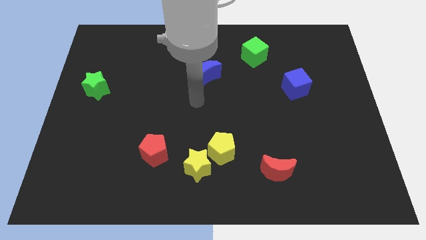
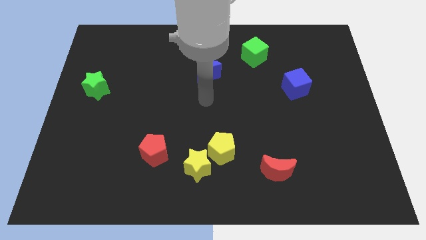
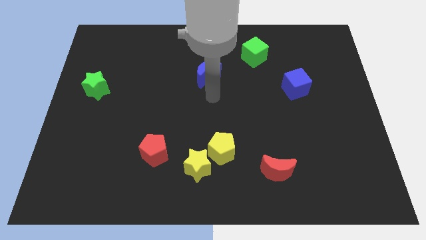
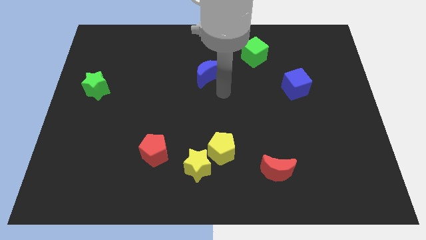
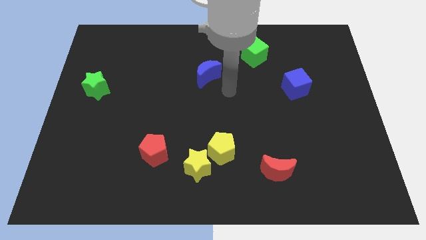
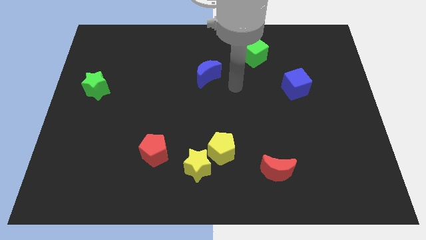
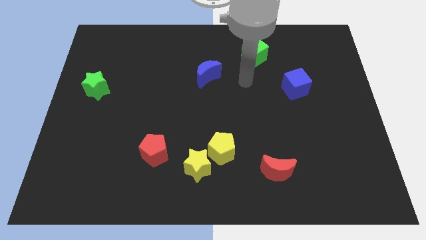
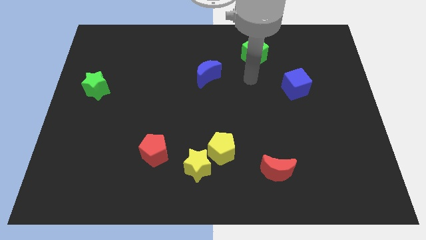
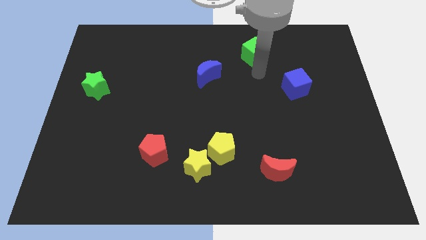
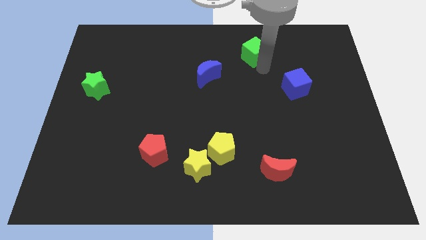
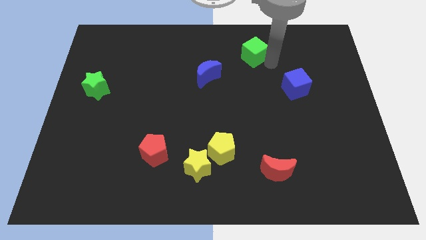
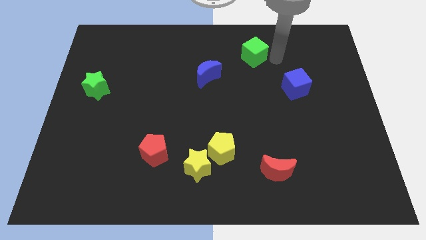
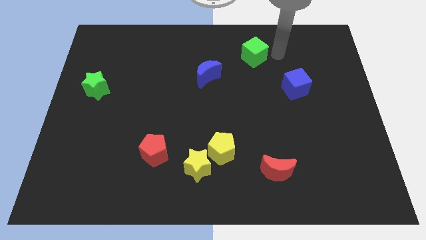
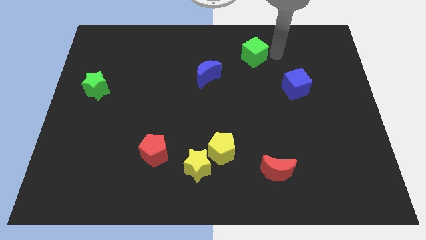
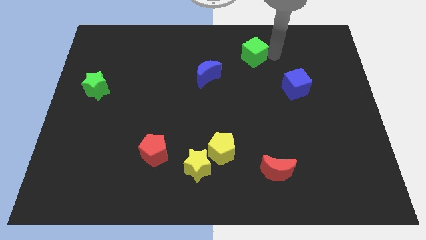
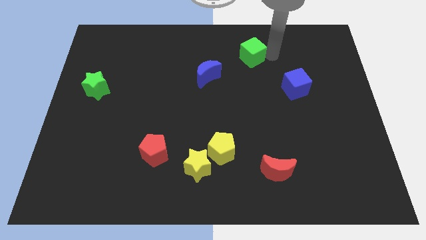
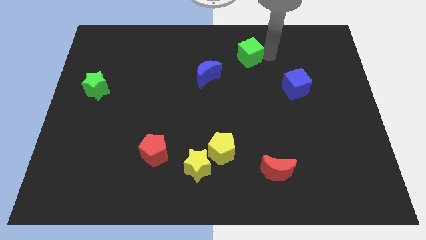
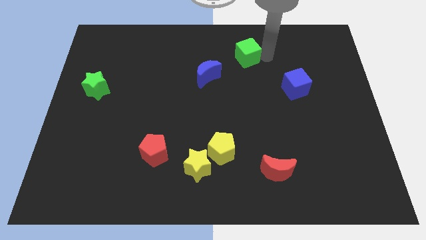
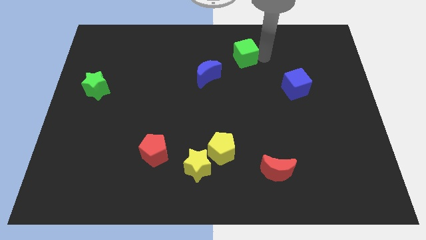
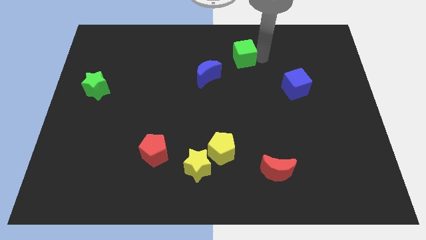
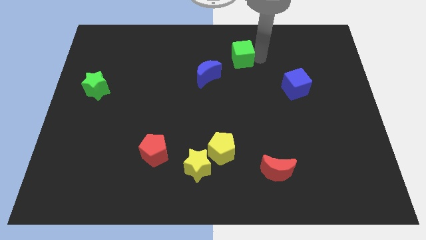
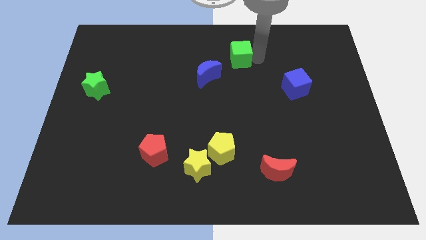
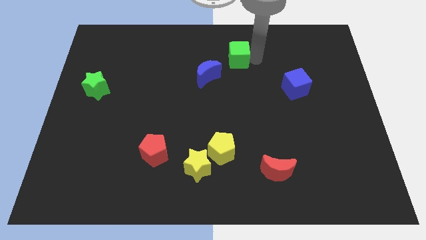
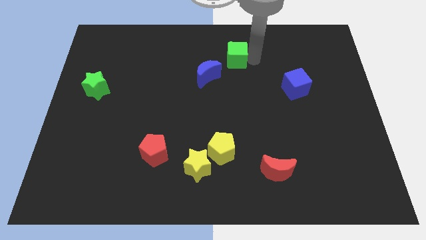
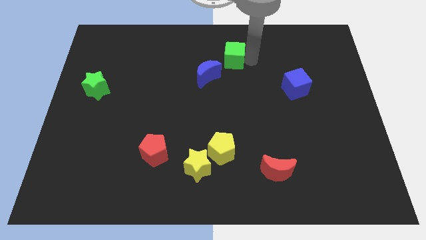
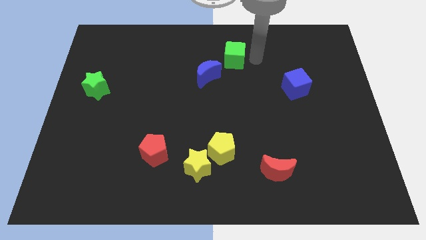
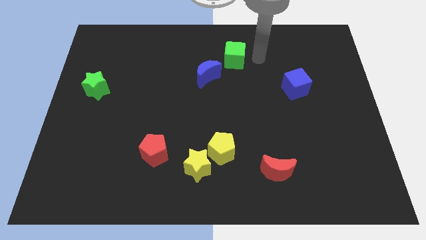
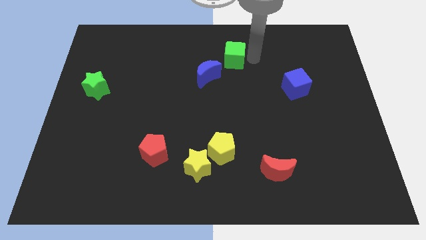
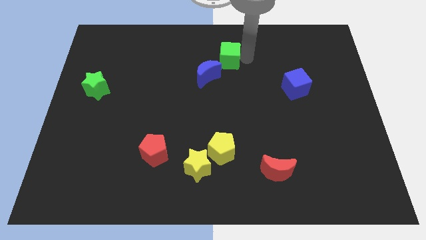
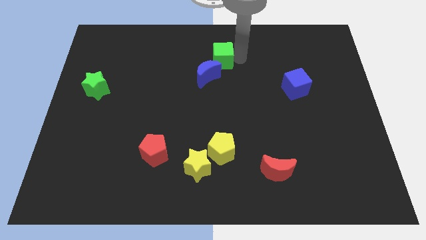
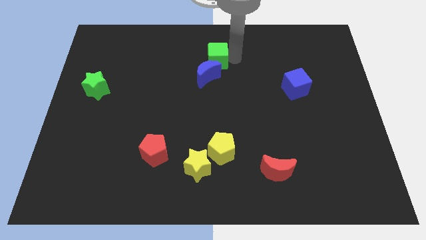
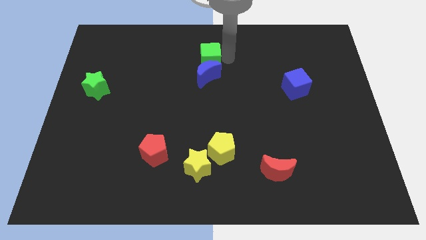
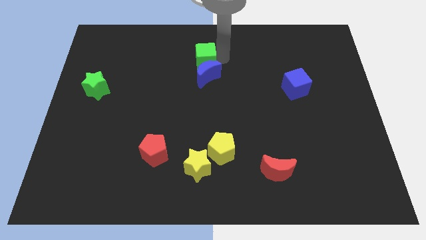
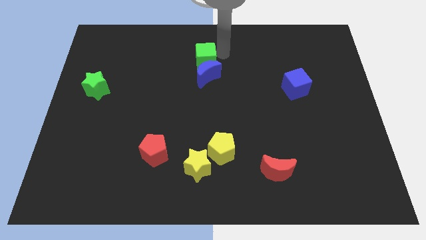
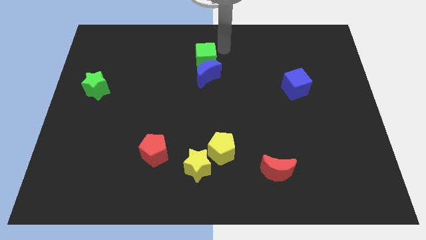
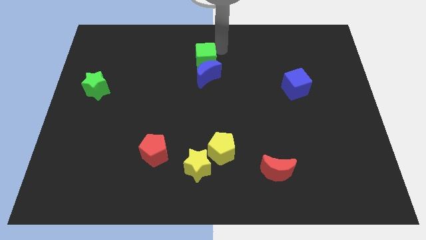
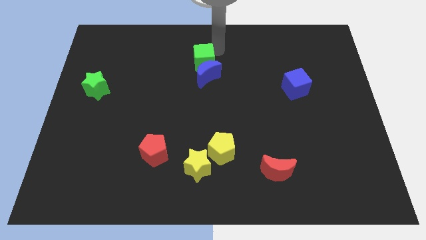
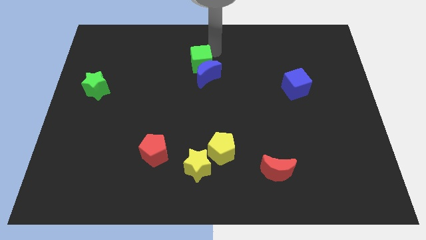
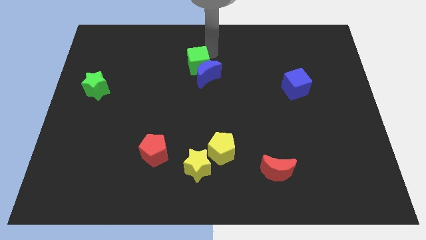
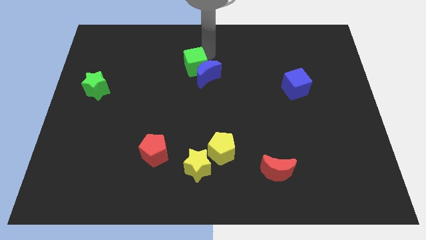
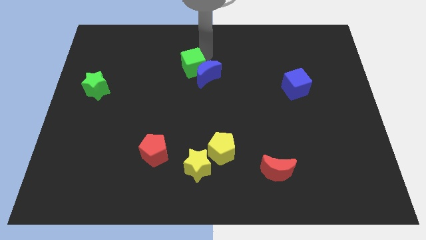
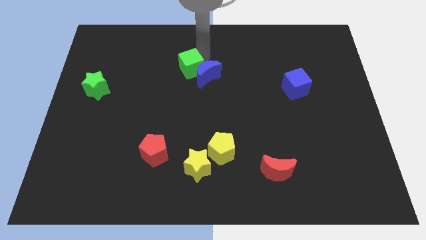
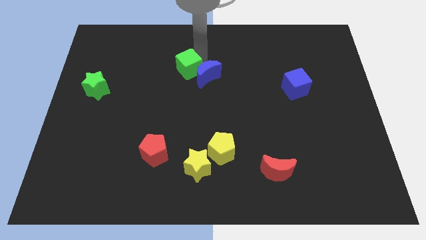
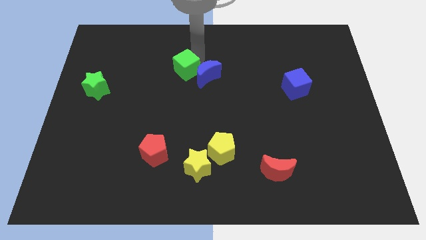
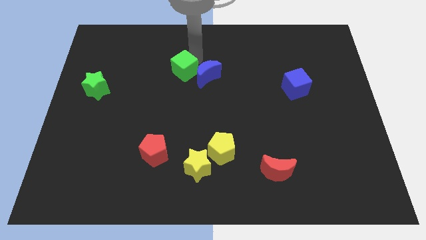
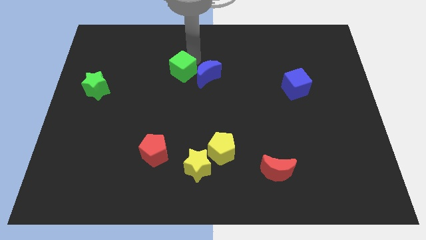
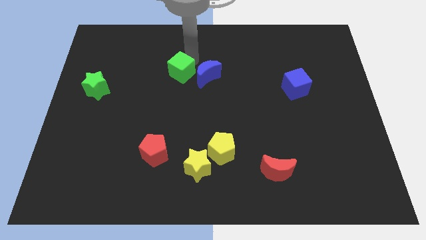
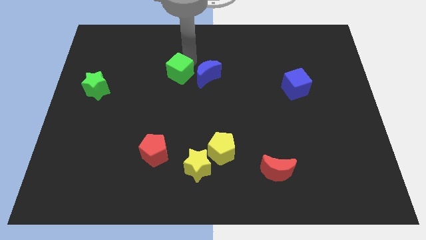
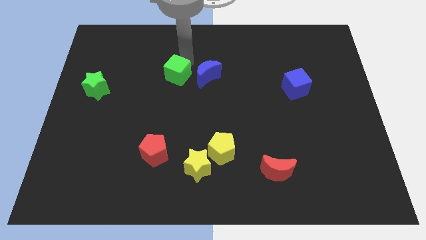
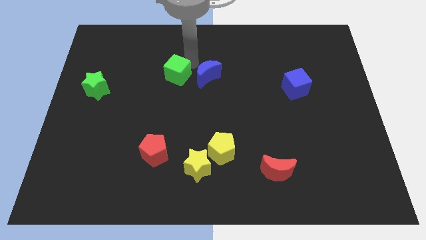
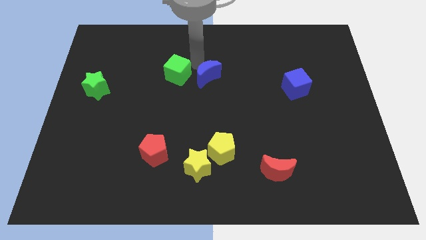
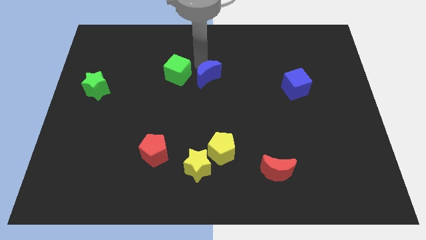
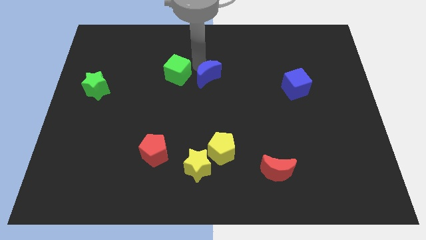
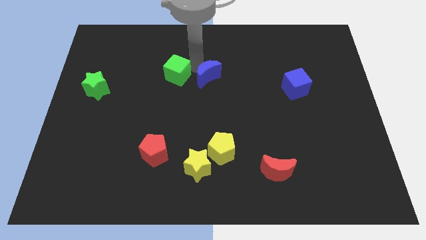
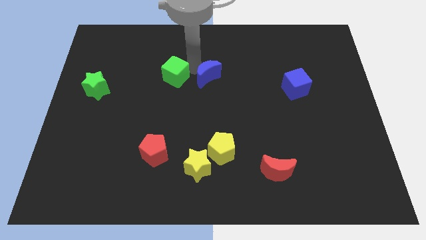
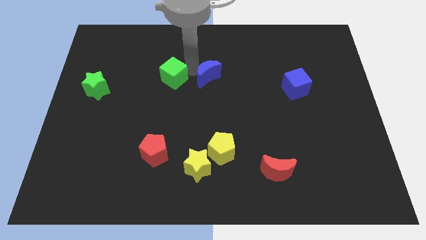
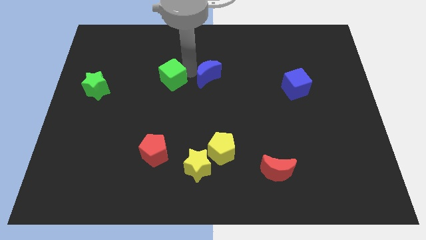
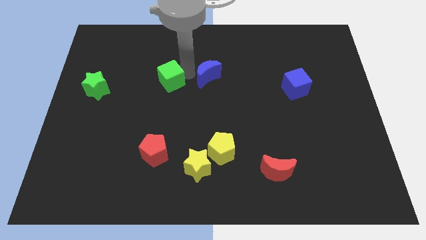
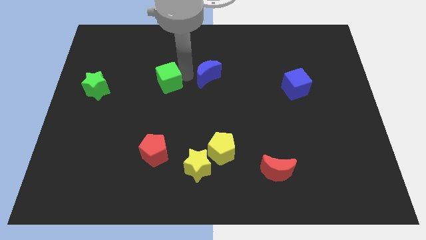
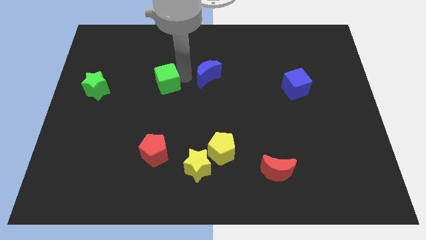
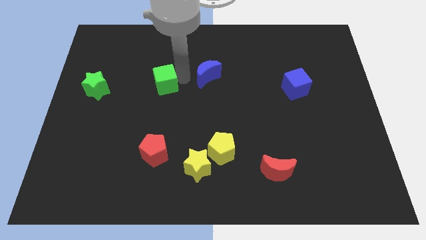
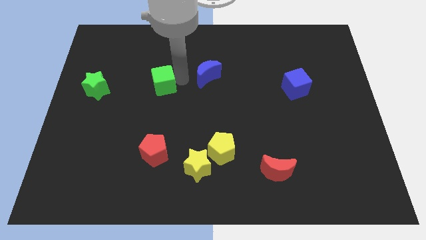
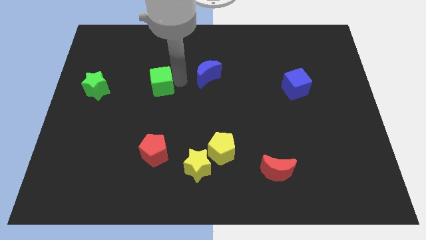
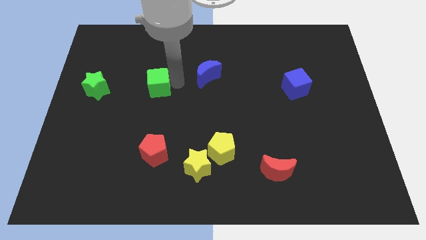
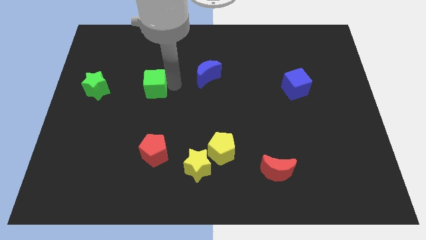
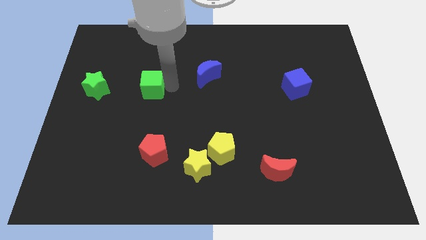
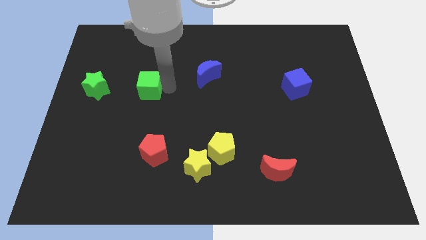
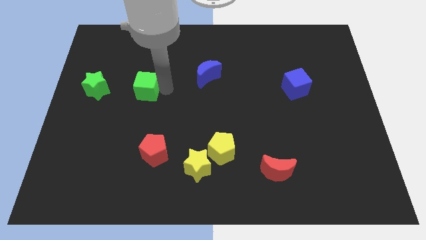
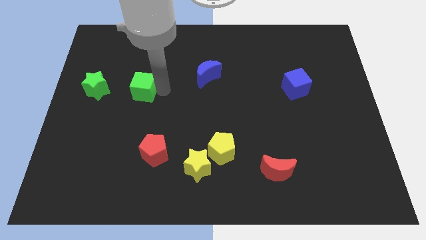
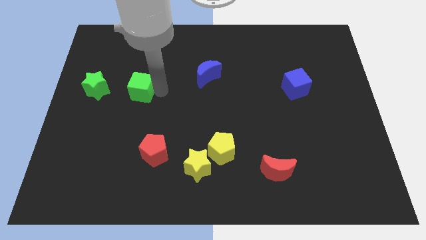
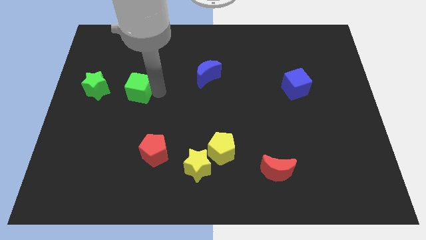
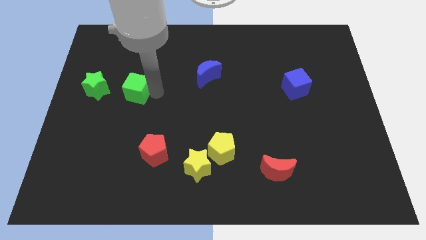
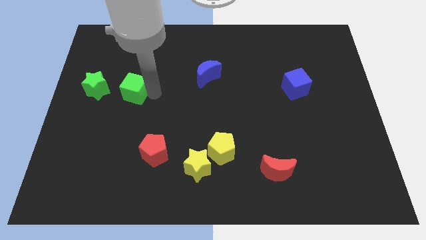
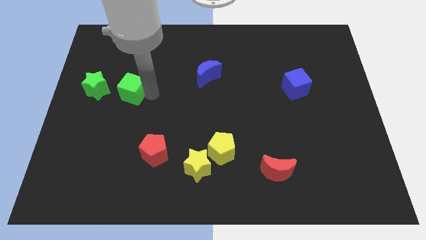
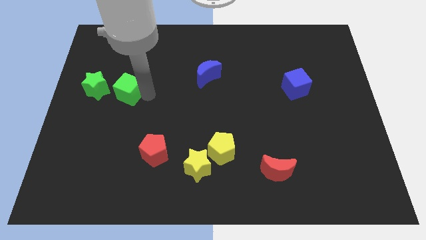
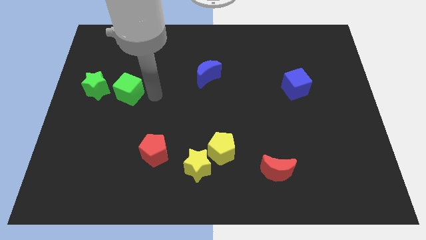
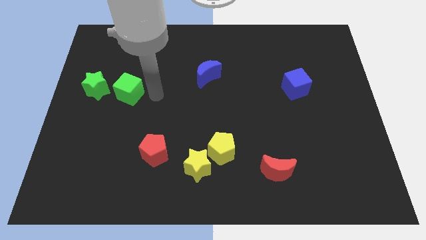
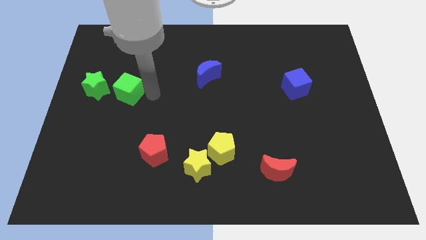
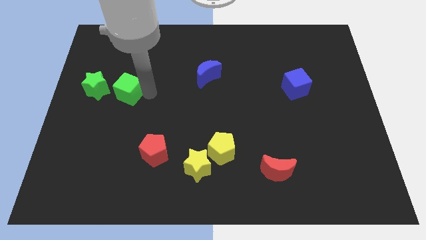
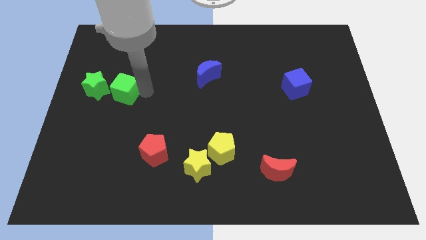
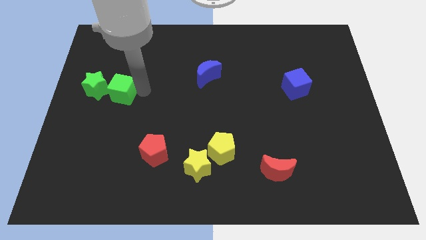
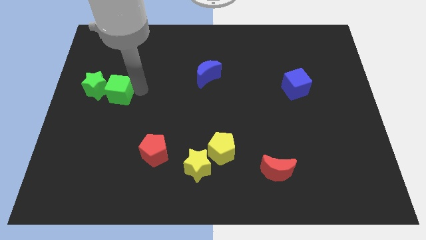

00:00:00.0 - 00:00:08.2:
push the green cube to the green star
